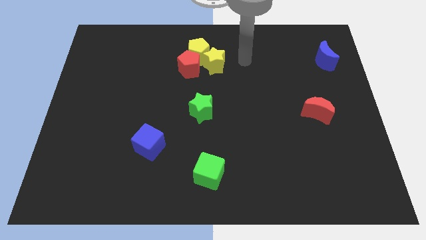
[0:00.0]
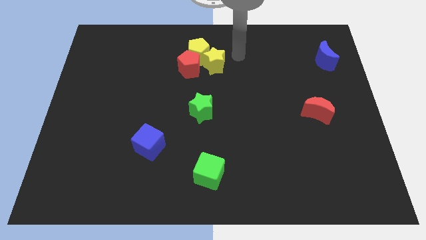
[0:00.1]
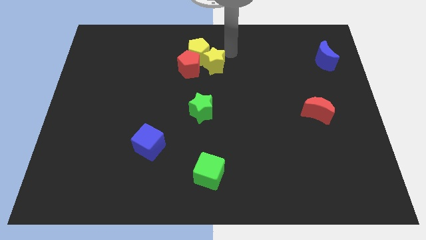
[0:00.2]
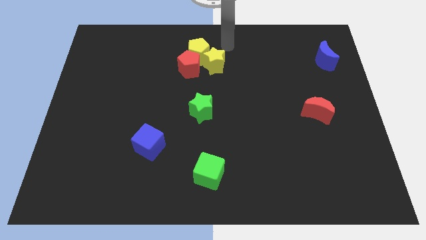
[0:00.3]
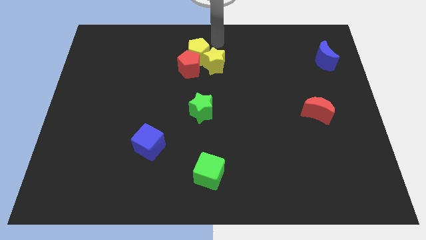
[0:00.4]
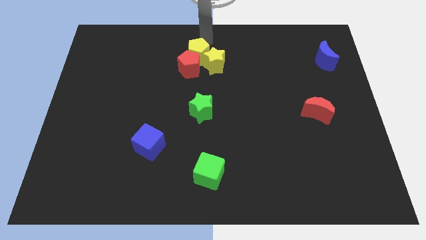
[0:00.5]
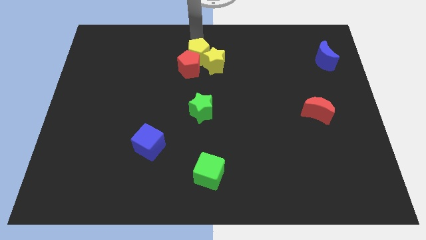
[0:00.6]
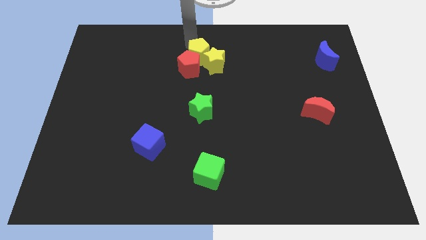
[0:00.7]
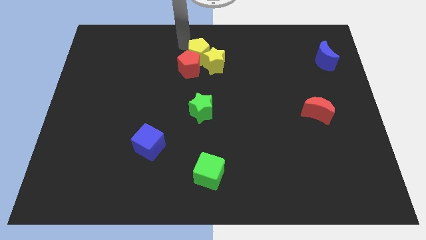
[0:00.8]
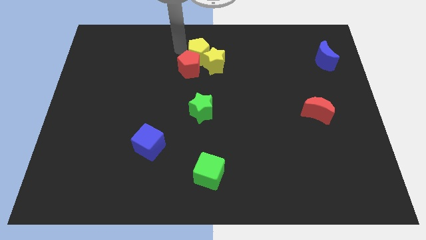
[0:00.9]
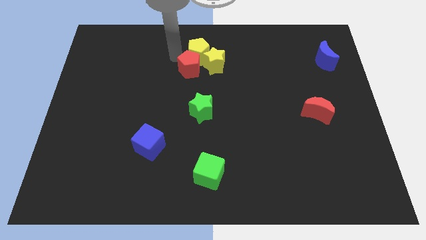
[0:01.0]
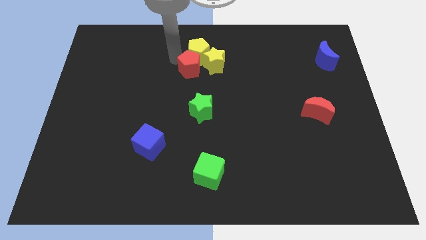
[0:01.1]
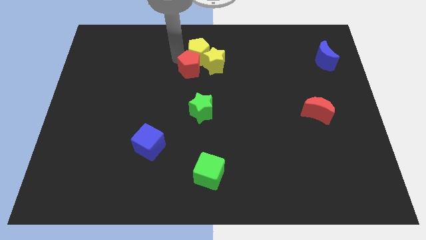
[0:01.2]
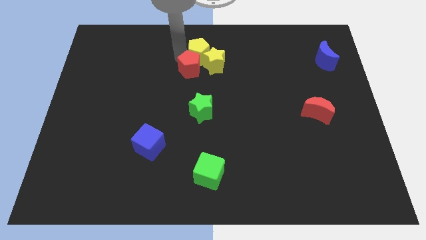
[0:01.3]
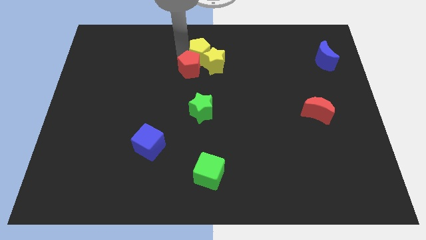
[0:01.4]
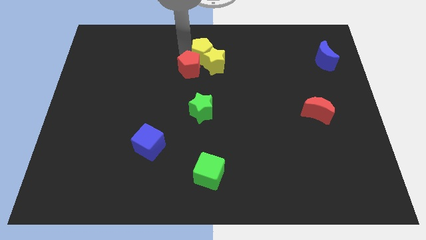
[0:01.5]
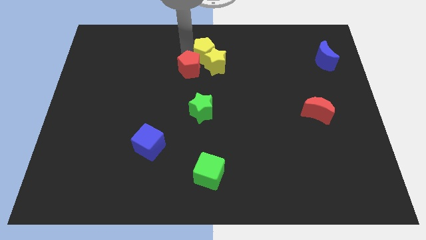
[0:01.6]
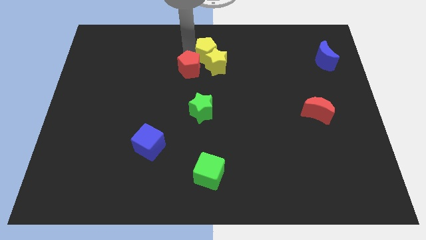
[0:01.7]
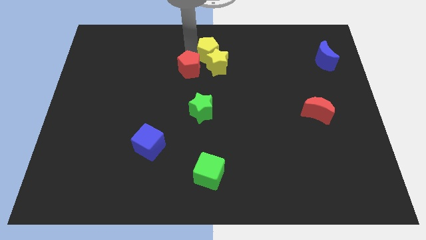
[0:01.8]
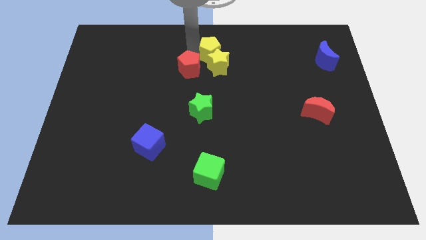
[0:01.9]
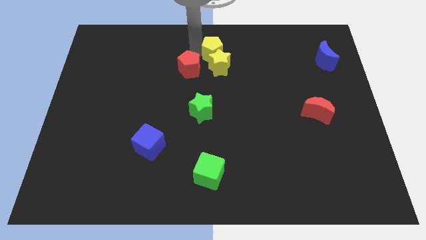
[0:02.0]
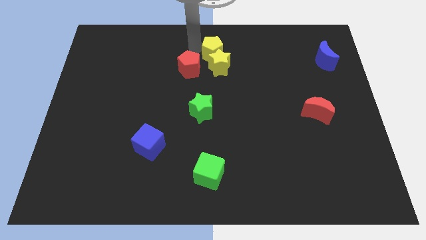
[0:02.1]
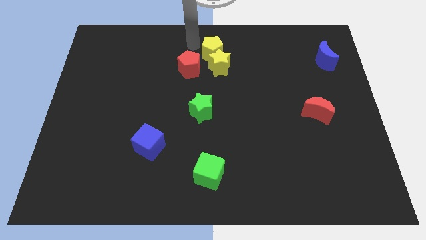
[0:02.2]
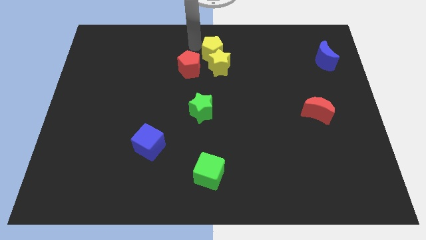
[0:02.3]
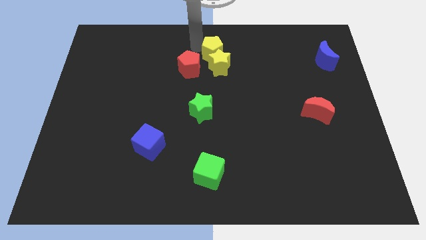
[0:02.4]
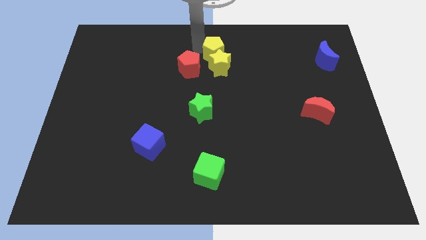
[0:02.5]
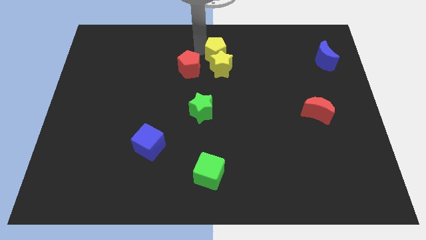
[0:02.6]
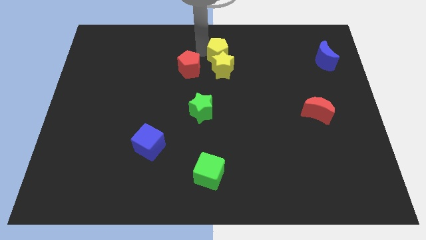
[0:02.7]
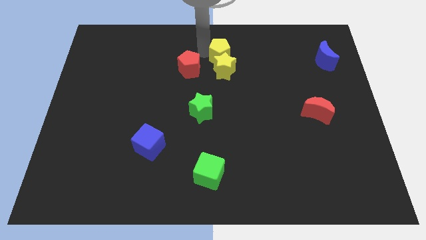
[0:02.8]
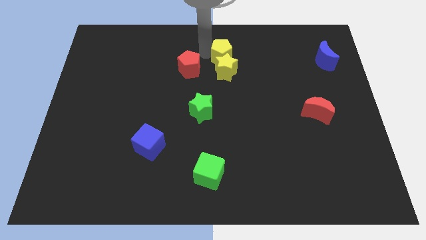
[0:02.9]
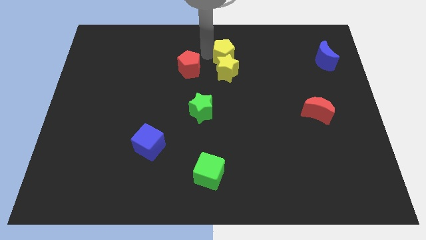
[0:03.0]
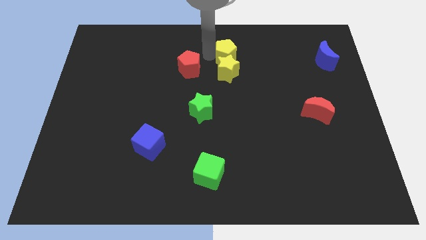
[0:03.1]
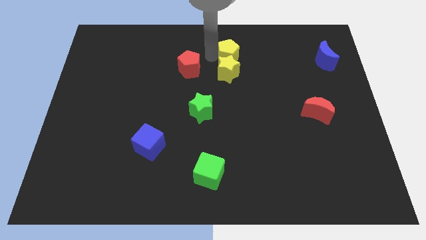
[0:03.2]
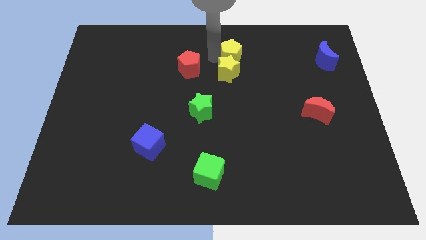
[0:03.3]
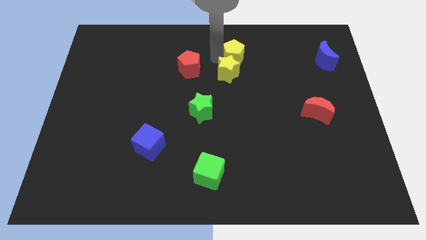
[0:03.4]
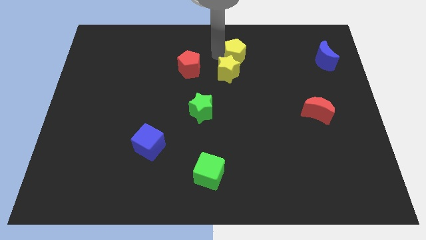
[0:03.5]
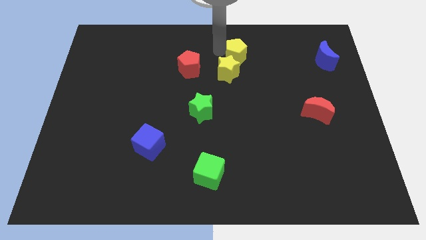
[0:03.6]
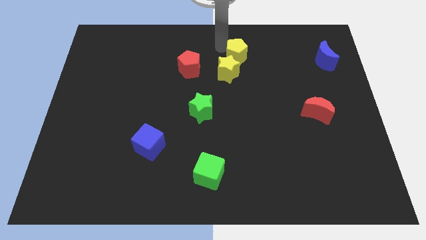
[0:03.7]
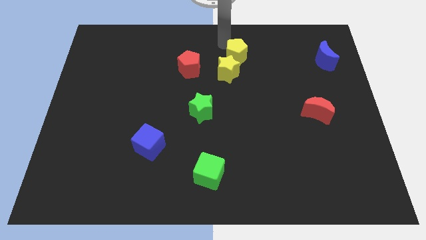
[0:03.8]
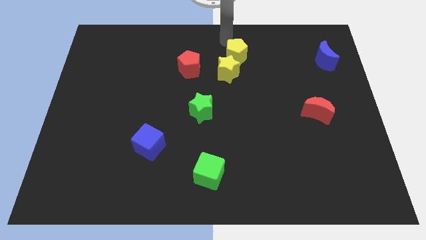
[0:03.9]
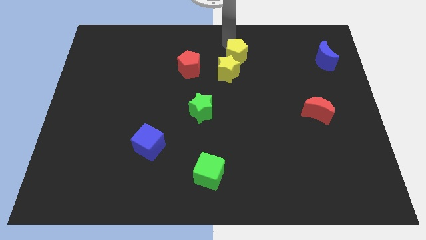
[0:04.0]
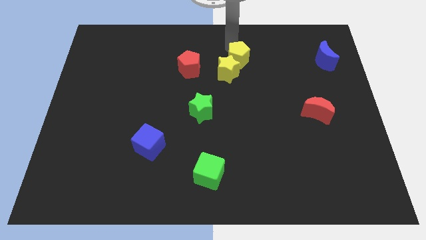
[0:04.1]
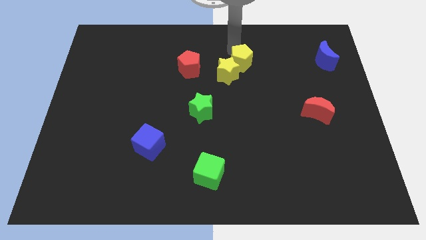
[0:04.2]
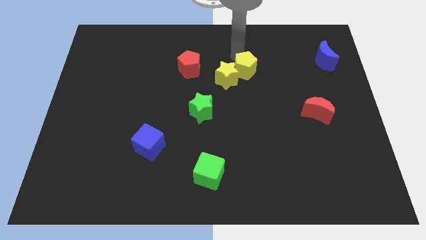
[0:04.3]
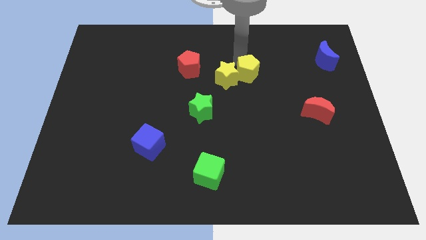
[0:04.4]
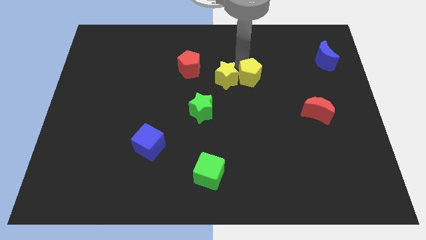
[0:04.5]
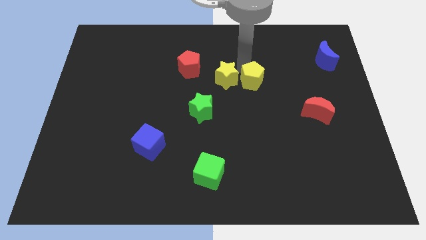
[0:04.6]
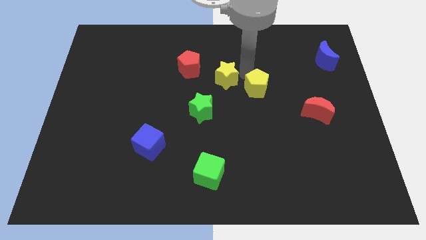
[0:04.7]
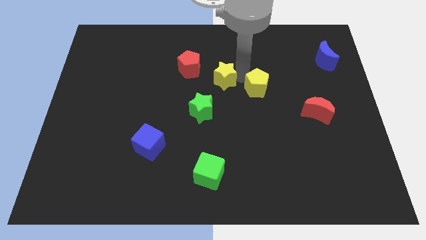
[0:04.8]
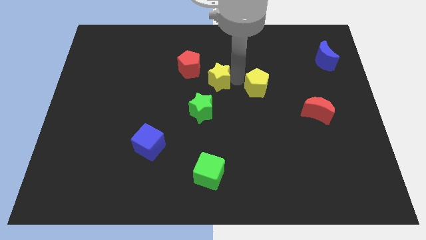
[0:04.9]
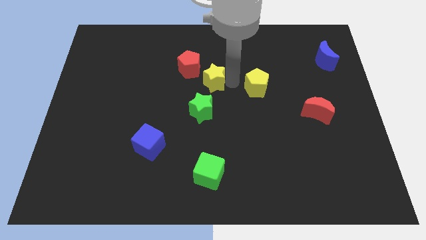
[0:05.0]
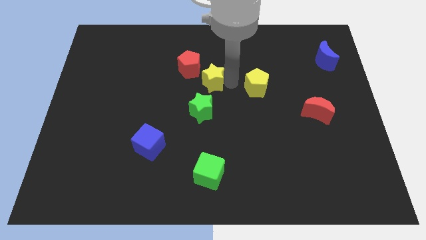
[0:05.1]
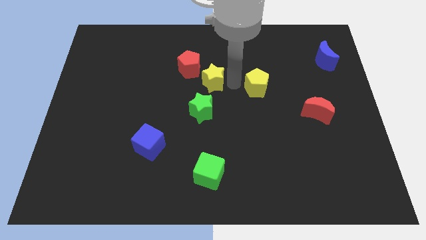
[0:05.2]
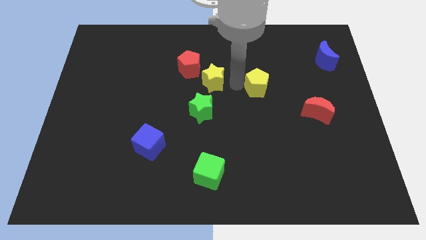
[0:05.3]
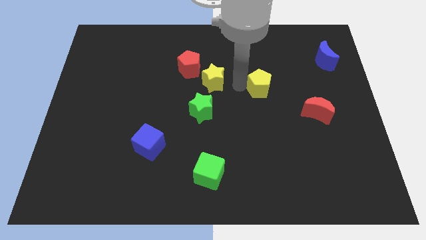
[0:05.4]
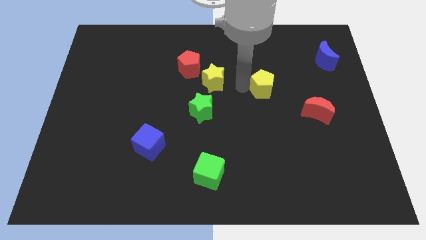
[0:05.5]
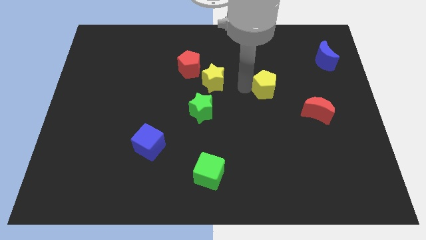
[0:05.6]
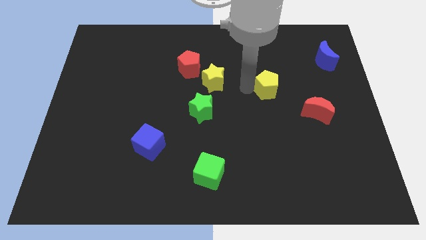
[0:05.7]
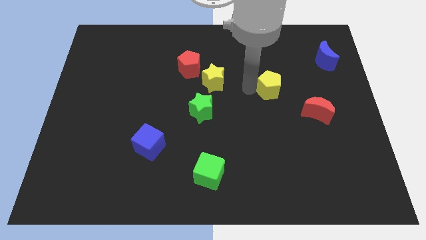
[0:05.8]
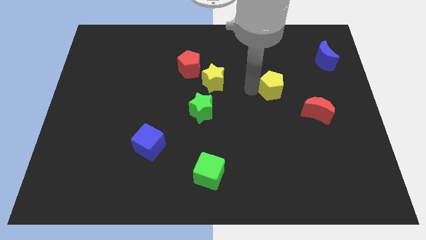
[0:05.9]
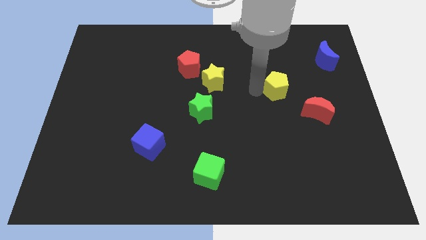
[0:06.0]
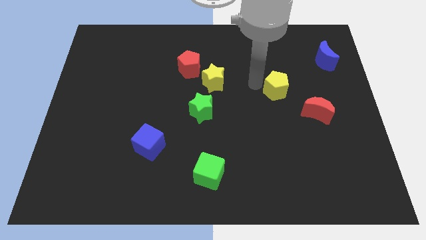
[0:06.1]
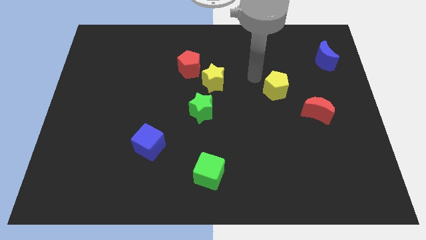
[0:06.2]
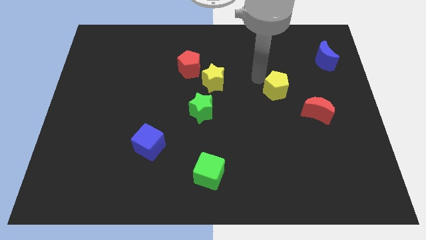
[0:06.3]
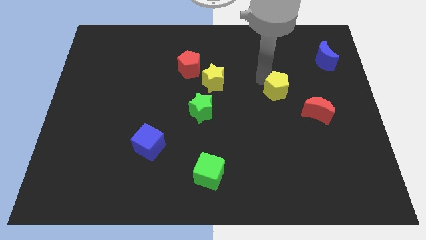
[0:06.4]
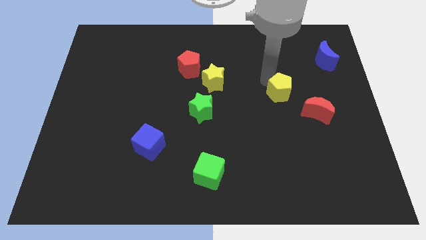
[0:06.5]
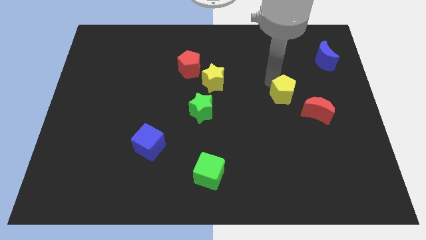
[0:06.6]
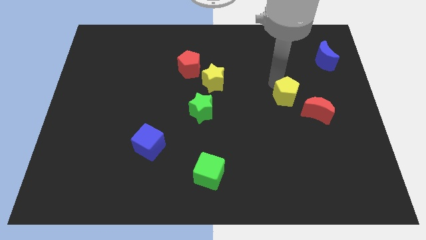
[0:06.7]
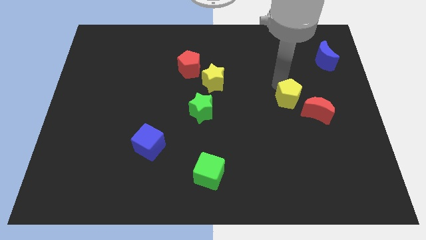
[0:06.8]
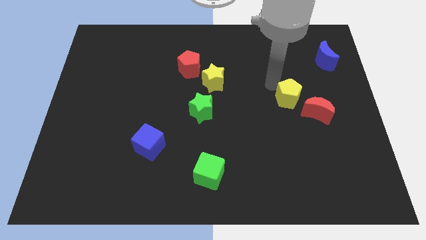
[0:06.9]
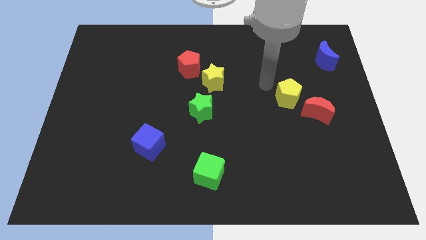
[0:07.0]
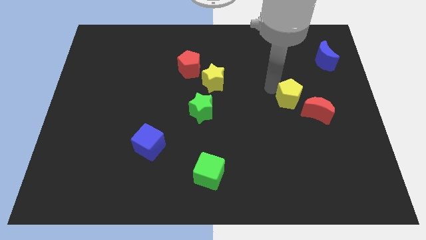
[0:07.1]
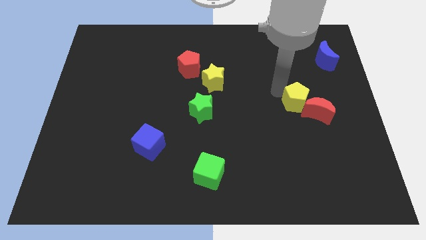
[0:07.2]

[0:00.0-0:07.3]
move the yellow pentagon to the red moon
